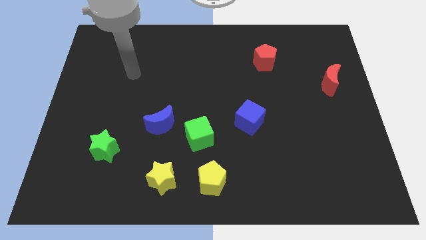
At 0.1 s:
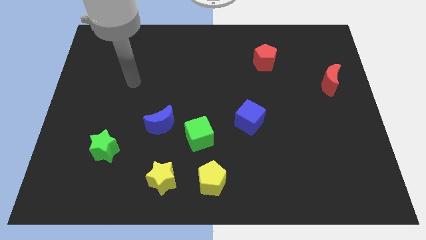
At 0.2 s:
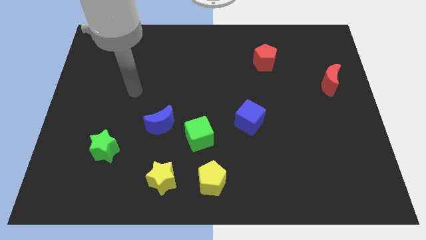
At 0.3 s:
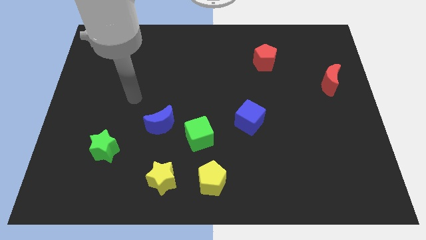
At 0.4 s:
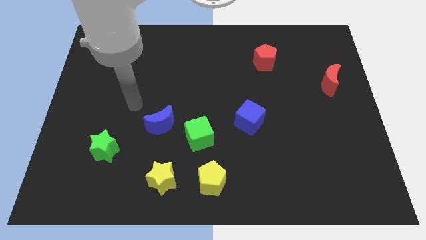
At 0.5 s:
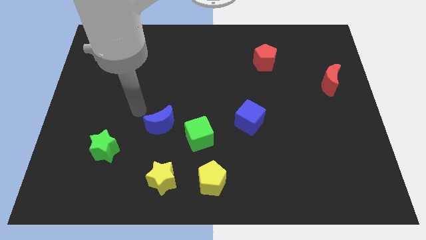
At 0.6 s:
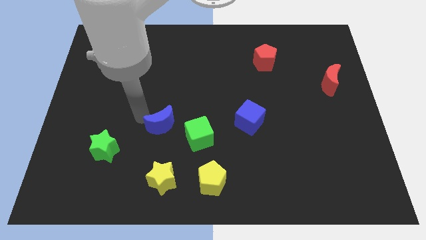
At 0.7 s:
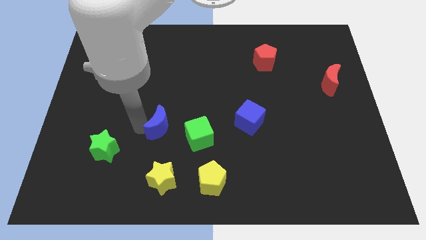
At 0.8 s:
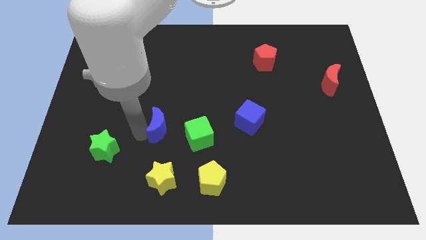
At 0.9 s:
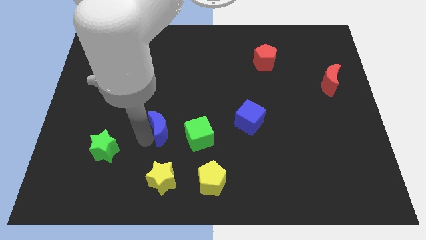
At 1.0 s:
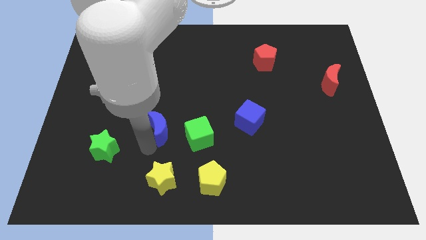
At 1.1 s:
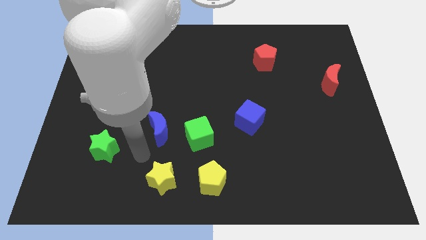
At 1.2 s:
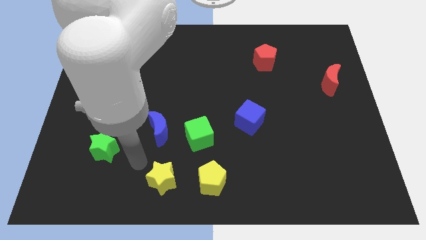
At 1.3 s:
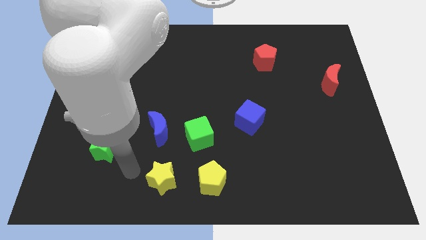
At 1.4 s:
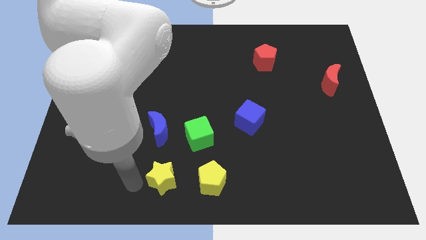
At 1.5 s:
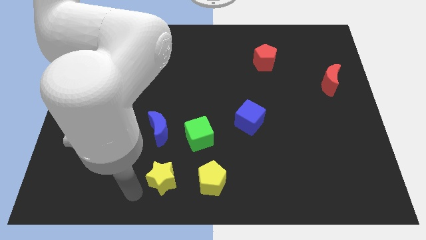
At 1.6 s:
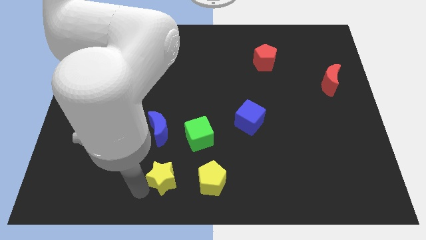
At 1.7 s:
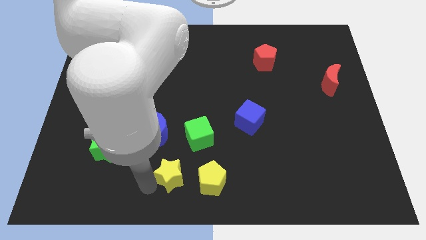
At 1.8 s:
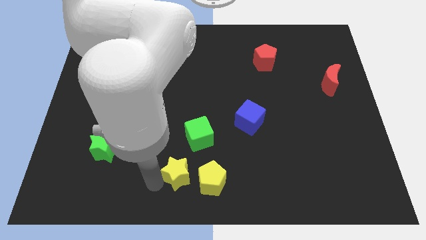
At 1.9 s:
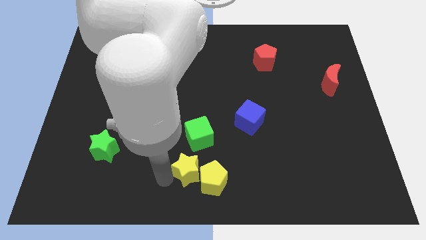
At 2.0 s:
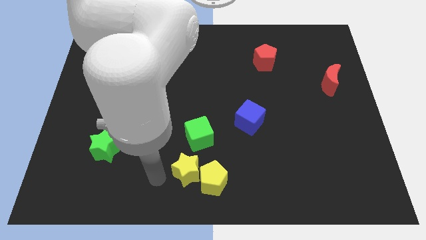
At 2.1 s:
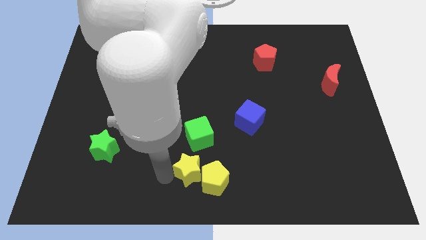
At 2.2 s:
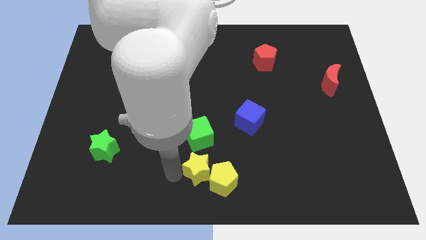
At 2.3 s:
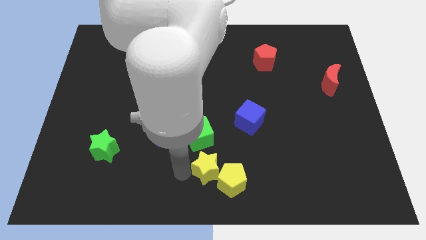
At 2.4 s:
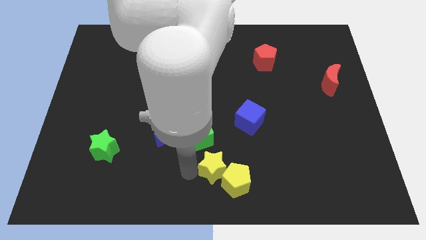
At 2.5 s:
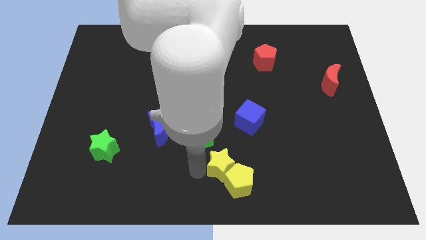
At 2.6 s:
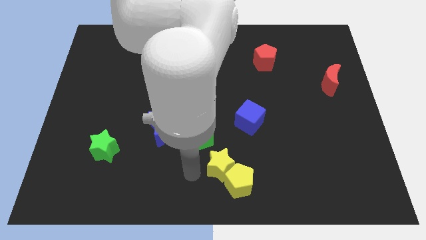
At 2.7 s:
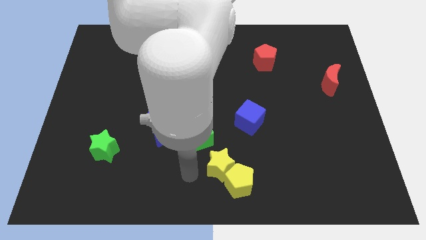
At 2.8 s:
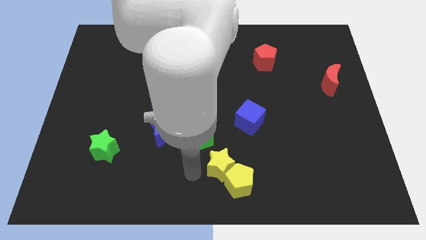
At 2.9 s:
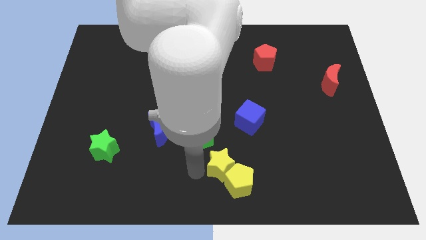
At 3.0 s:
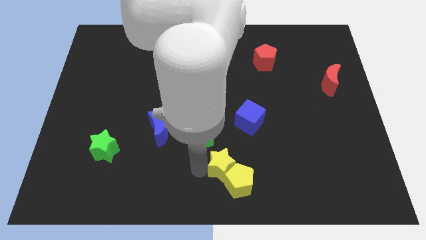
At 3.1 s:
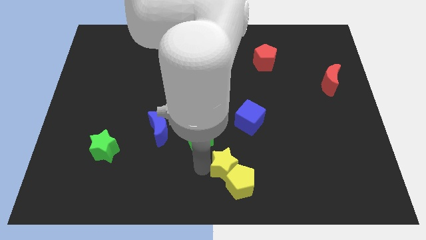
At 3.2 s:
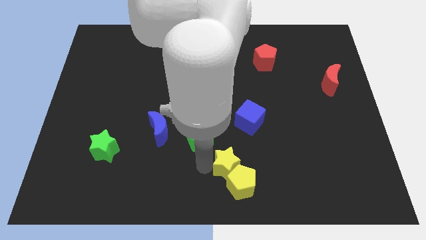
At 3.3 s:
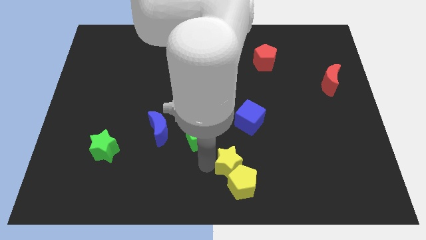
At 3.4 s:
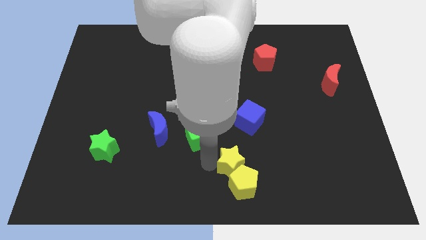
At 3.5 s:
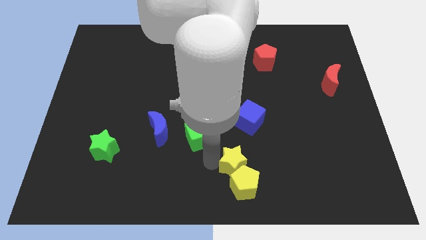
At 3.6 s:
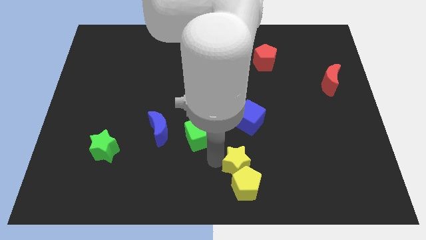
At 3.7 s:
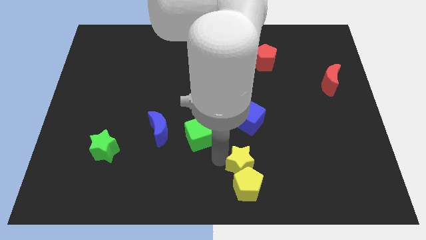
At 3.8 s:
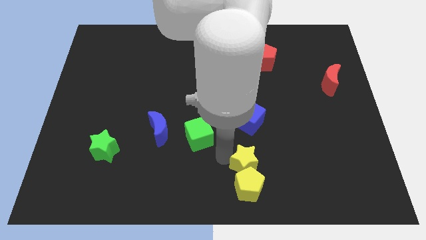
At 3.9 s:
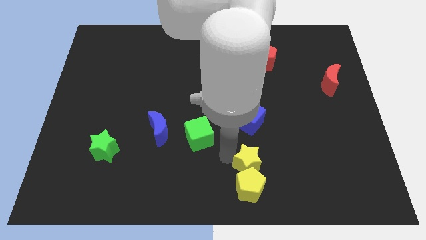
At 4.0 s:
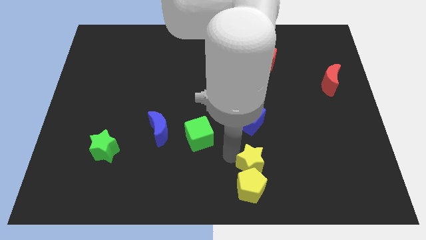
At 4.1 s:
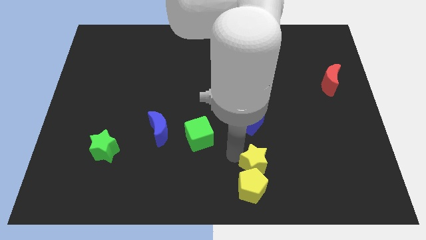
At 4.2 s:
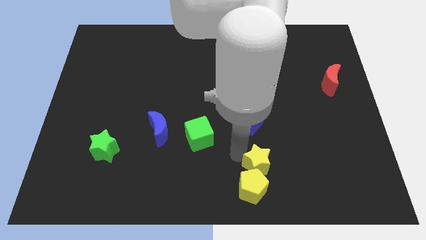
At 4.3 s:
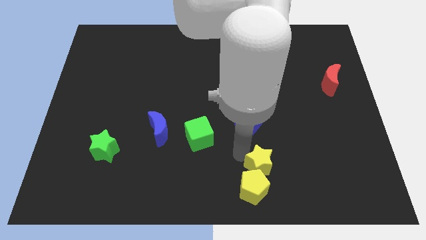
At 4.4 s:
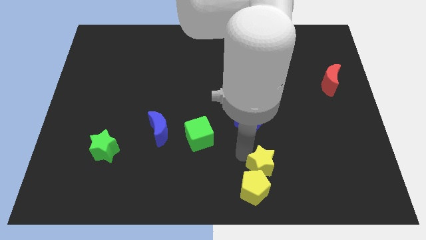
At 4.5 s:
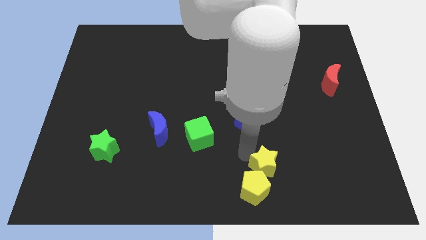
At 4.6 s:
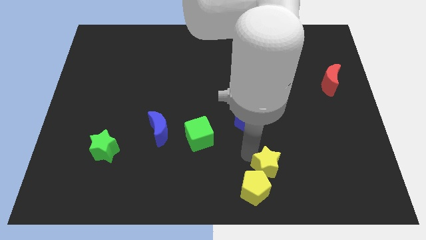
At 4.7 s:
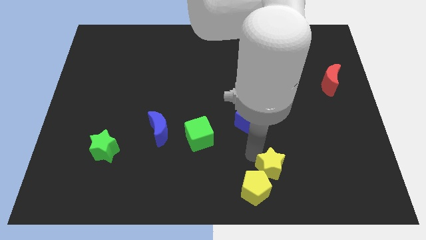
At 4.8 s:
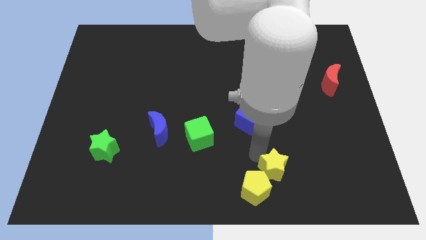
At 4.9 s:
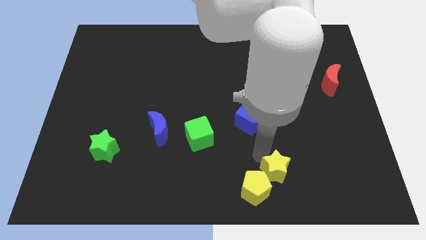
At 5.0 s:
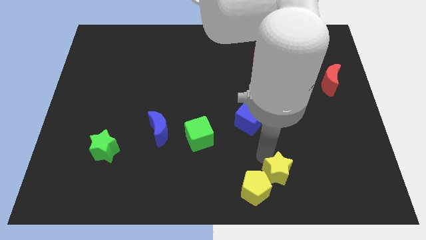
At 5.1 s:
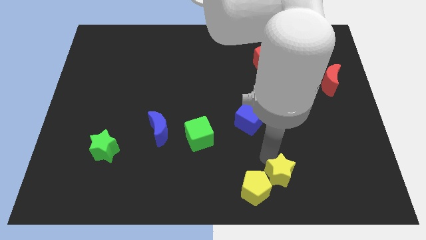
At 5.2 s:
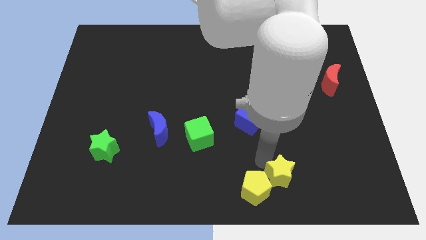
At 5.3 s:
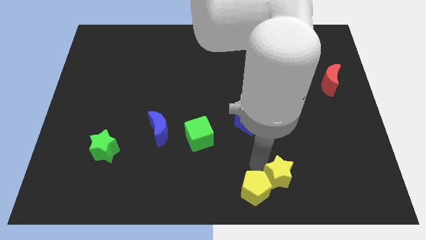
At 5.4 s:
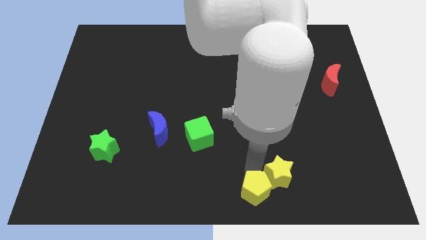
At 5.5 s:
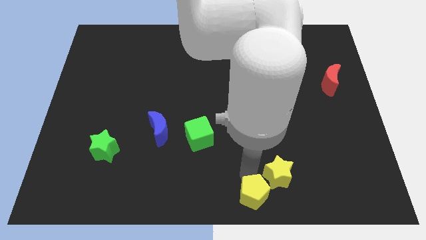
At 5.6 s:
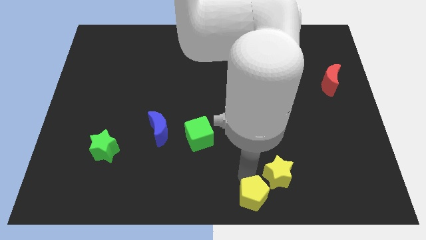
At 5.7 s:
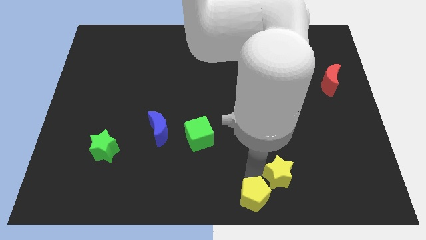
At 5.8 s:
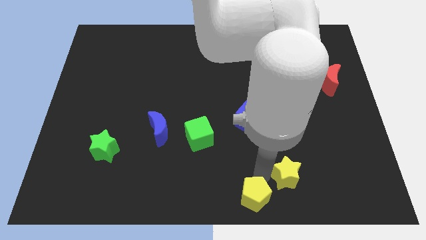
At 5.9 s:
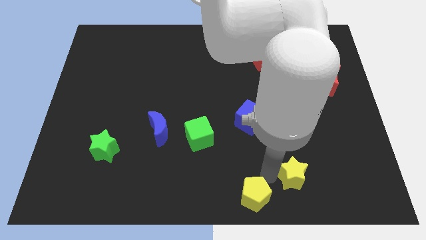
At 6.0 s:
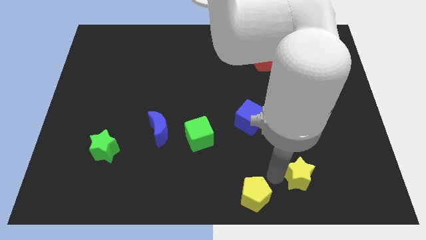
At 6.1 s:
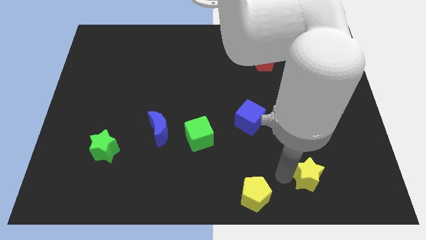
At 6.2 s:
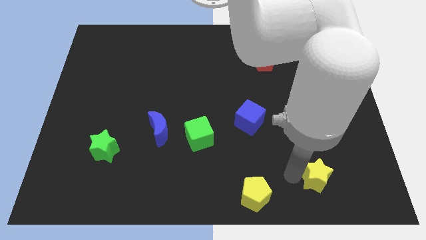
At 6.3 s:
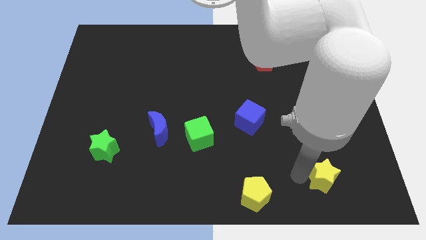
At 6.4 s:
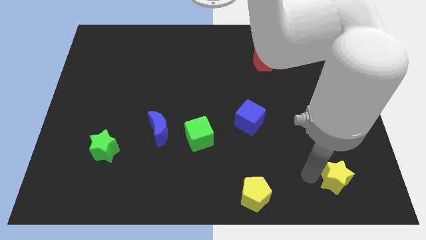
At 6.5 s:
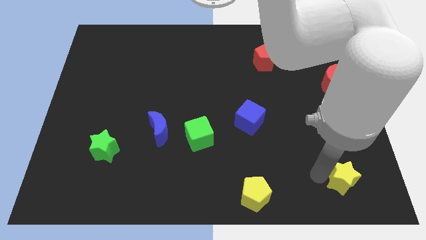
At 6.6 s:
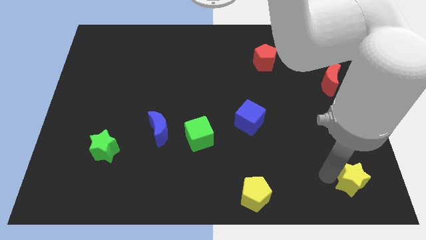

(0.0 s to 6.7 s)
slide the yellow star to the bottom right corner
